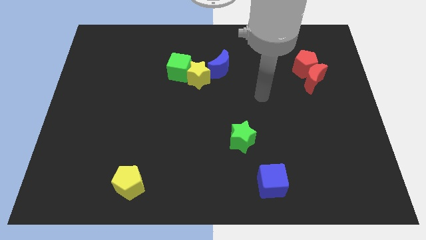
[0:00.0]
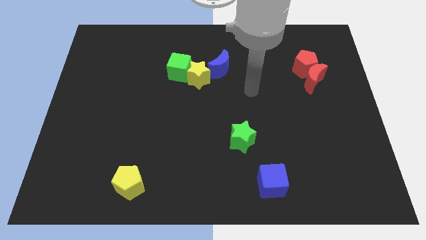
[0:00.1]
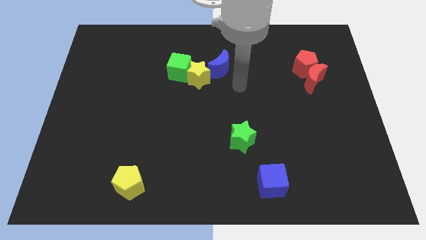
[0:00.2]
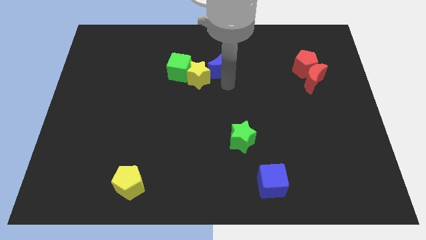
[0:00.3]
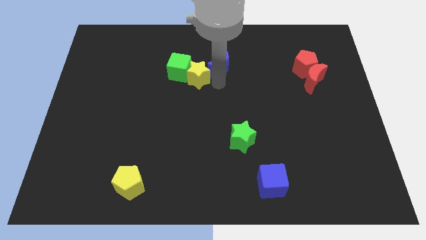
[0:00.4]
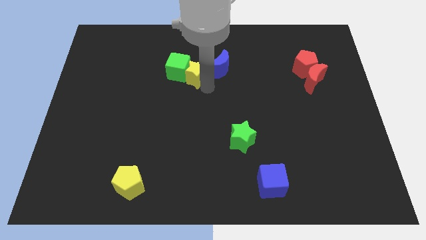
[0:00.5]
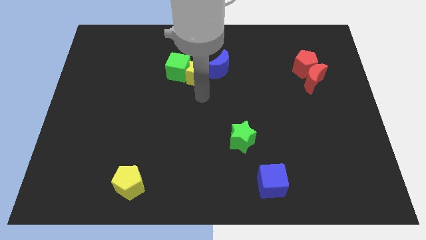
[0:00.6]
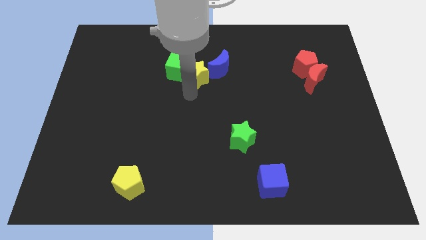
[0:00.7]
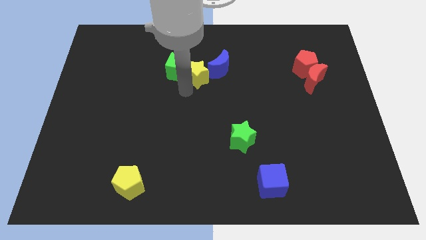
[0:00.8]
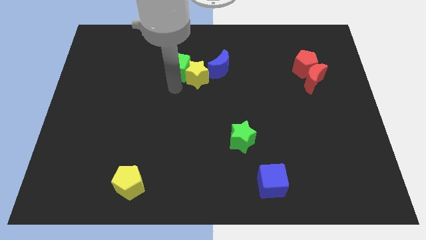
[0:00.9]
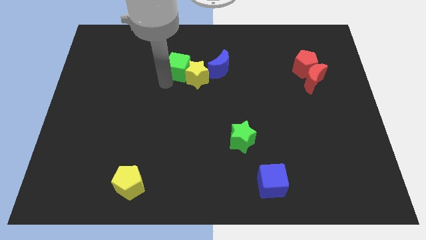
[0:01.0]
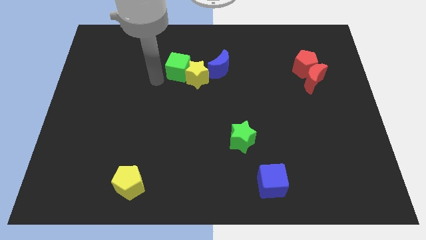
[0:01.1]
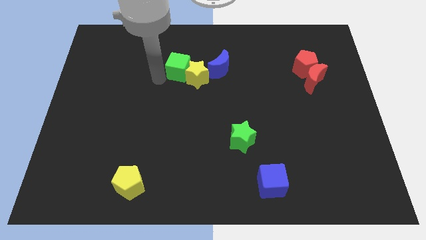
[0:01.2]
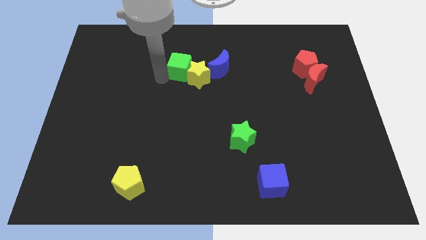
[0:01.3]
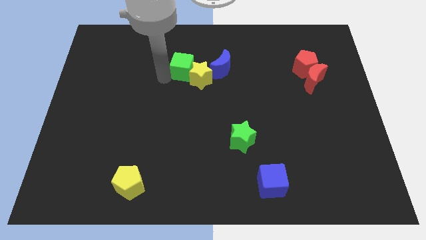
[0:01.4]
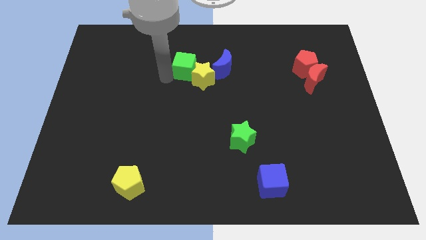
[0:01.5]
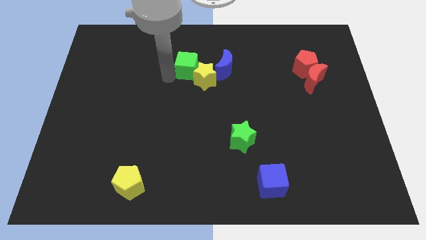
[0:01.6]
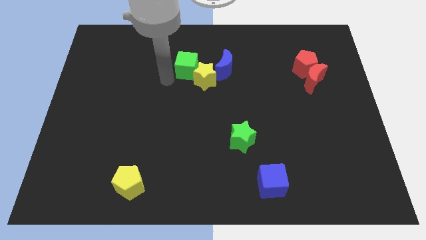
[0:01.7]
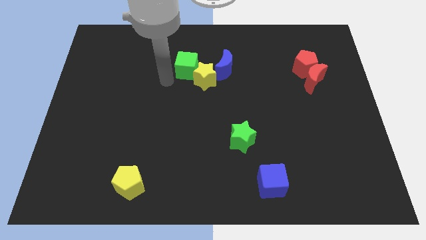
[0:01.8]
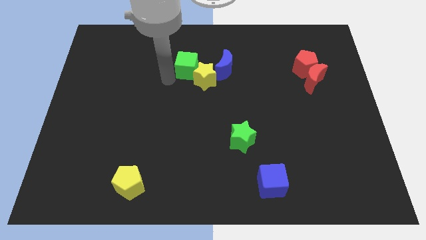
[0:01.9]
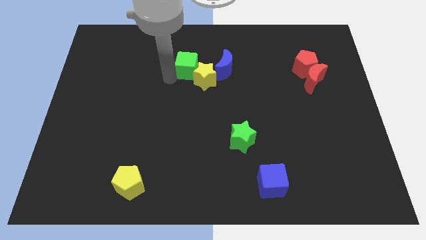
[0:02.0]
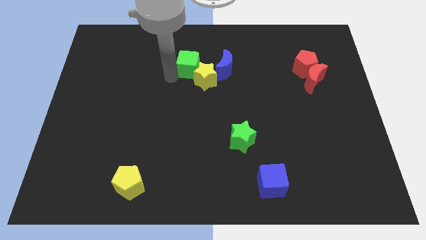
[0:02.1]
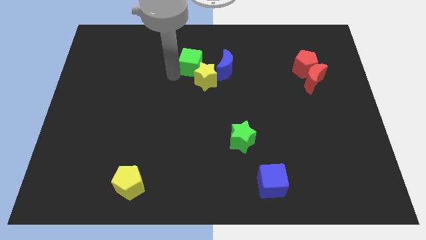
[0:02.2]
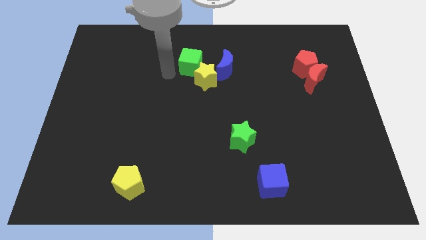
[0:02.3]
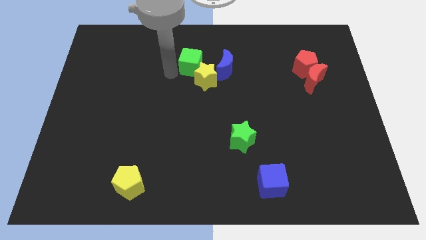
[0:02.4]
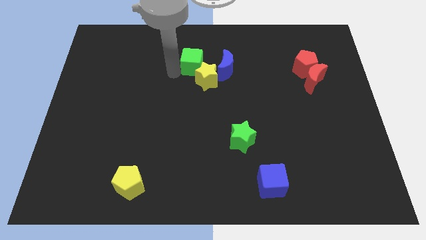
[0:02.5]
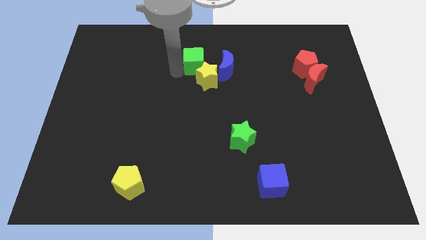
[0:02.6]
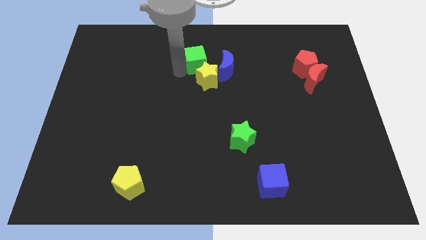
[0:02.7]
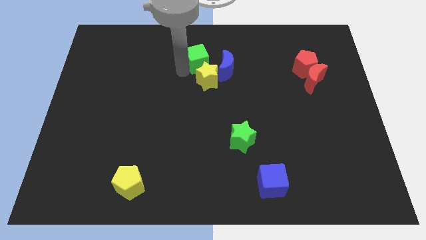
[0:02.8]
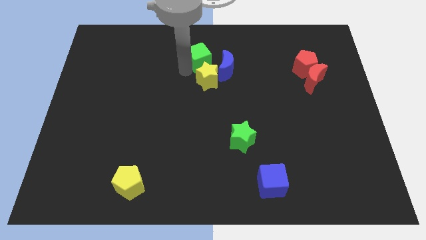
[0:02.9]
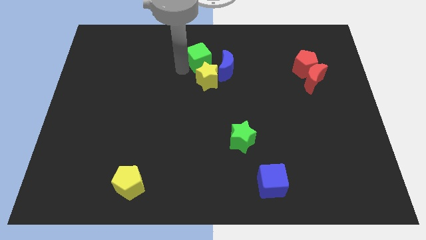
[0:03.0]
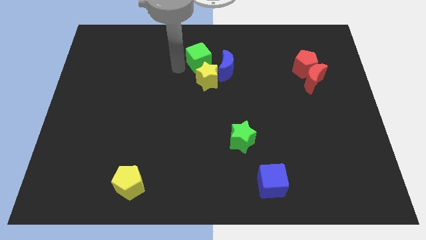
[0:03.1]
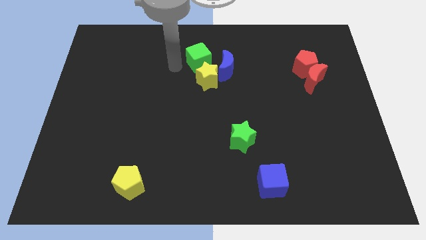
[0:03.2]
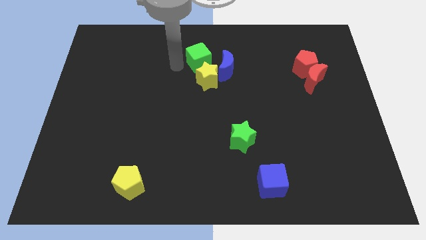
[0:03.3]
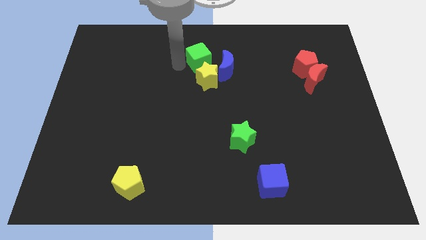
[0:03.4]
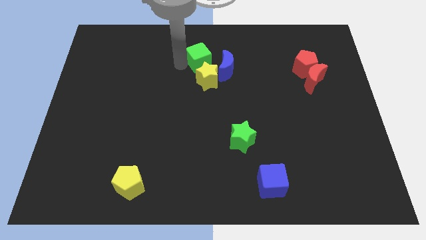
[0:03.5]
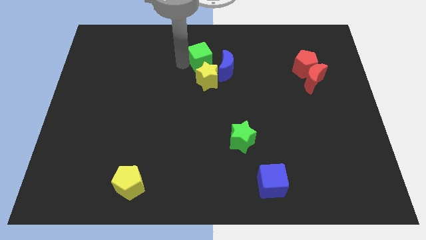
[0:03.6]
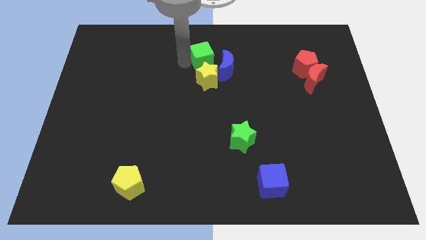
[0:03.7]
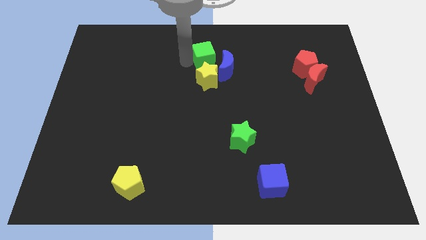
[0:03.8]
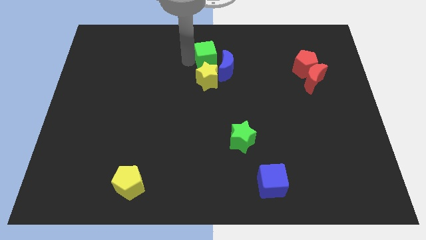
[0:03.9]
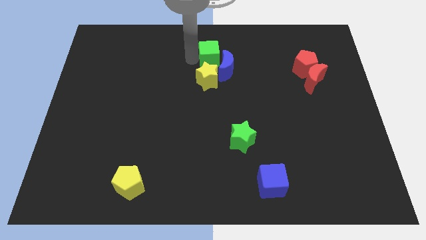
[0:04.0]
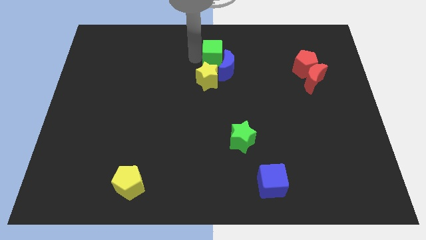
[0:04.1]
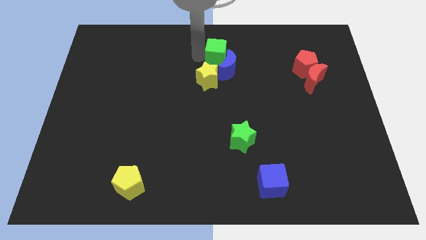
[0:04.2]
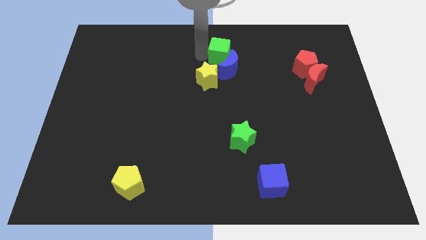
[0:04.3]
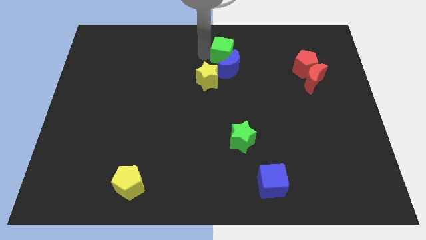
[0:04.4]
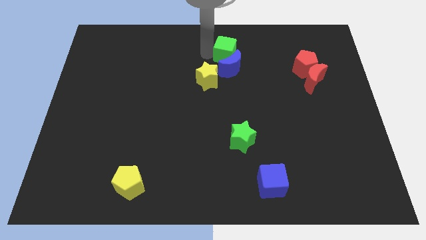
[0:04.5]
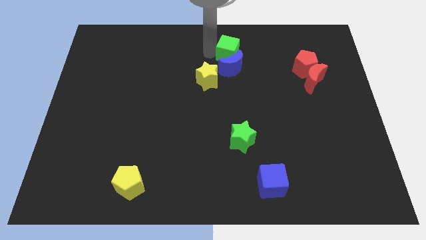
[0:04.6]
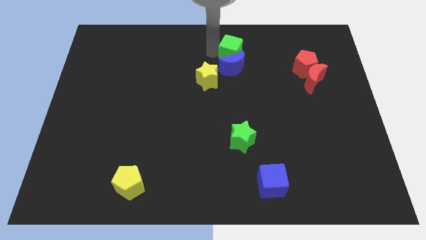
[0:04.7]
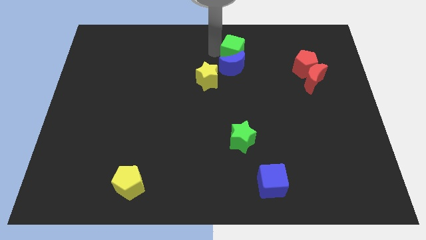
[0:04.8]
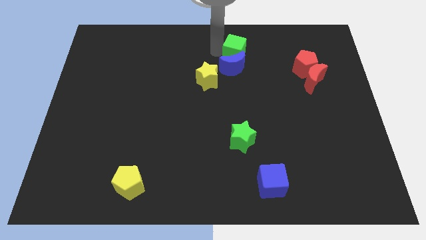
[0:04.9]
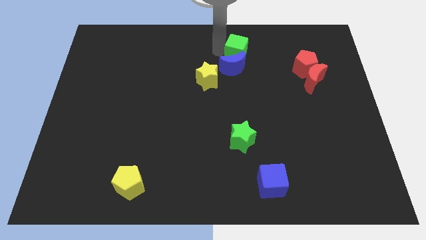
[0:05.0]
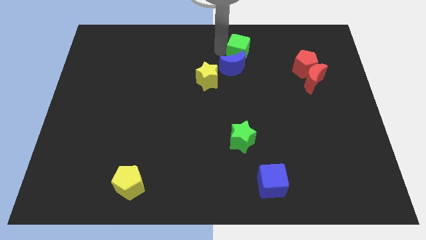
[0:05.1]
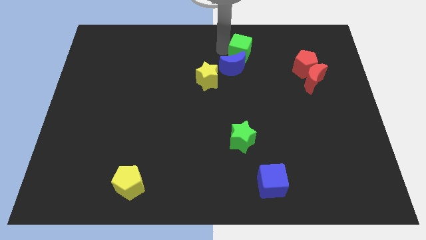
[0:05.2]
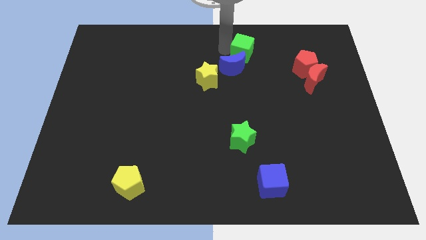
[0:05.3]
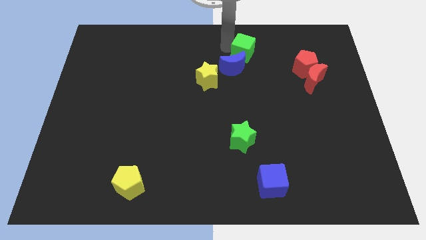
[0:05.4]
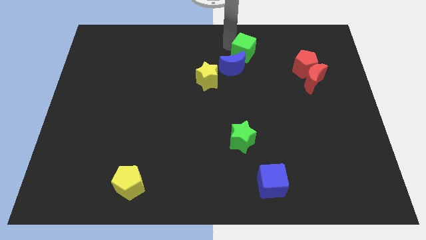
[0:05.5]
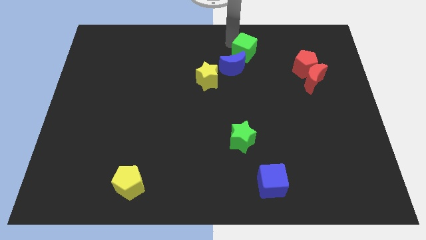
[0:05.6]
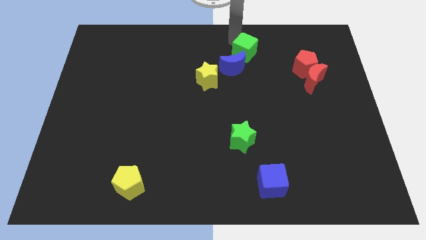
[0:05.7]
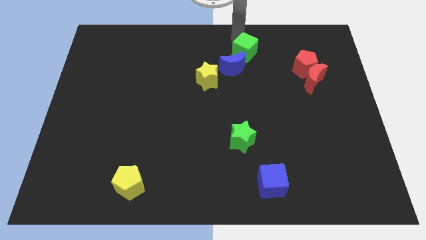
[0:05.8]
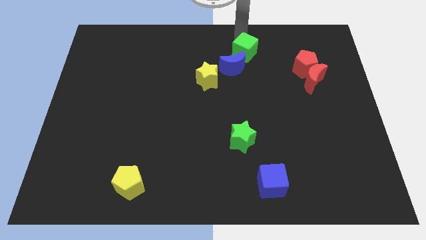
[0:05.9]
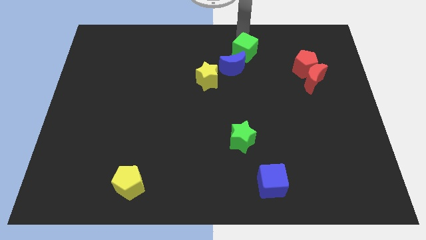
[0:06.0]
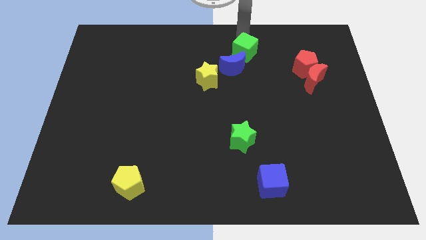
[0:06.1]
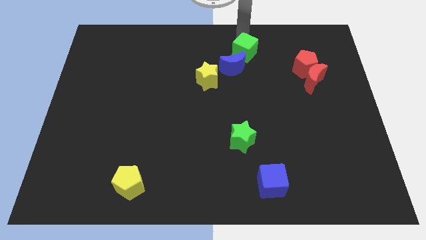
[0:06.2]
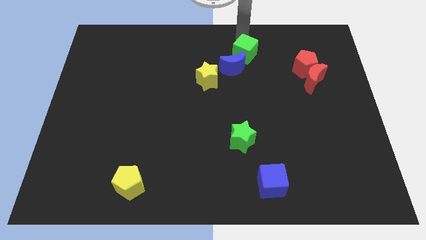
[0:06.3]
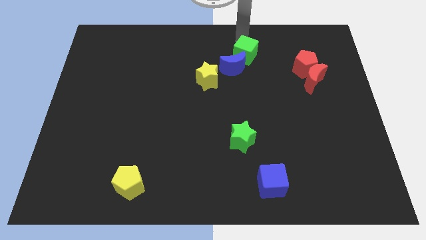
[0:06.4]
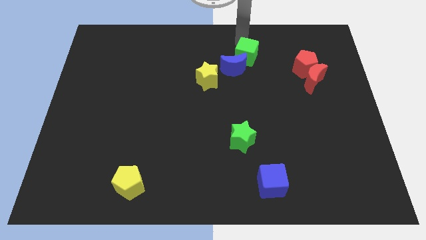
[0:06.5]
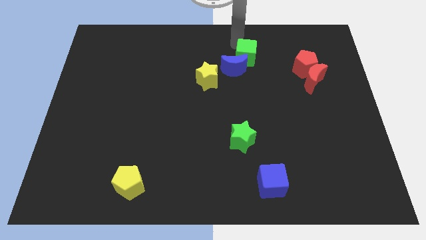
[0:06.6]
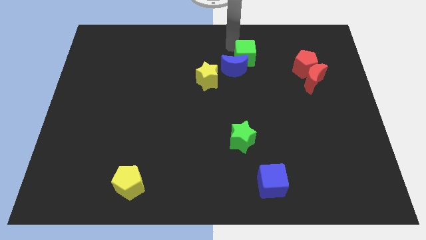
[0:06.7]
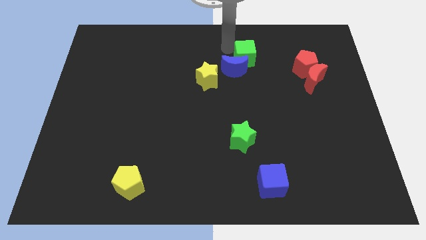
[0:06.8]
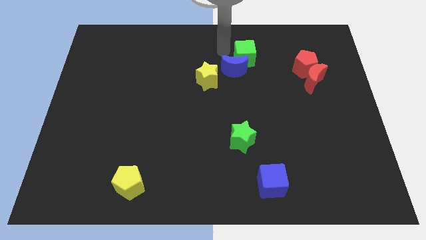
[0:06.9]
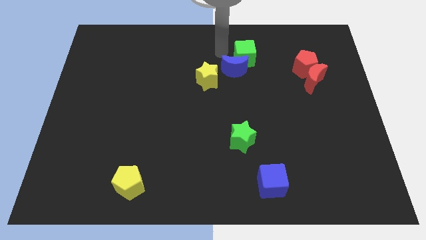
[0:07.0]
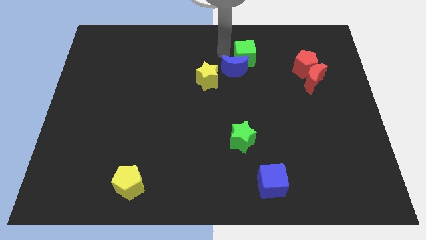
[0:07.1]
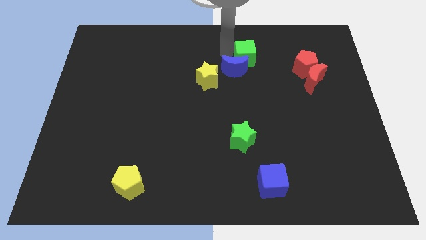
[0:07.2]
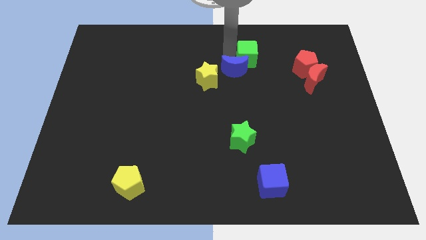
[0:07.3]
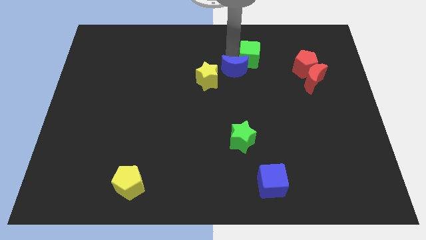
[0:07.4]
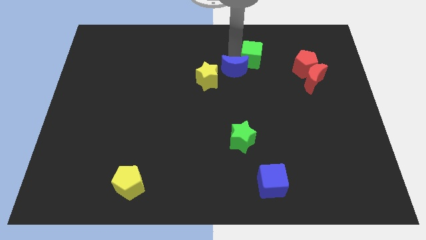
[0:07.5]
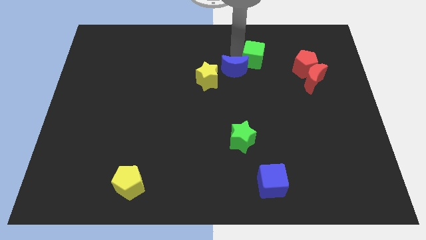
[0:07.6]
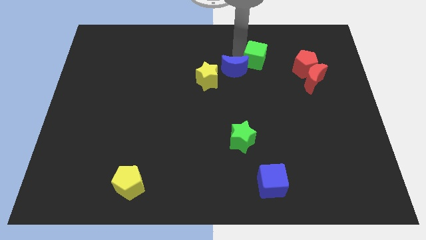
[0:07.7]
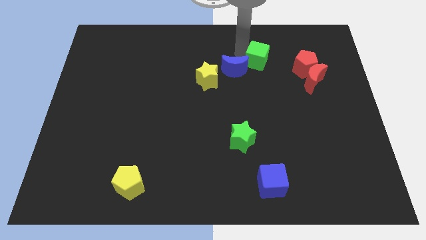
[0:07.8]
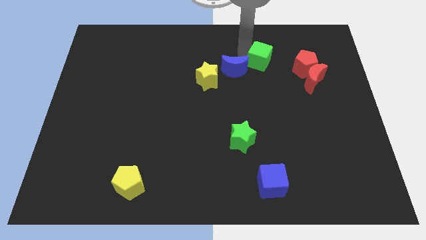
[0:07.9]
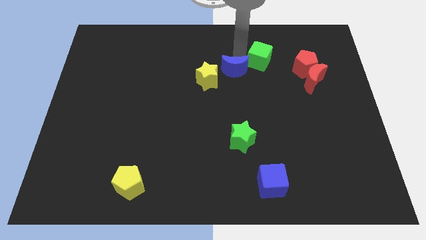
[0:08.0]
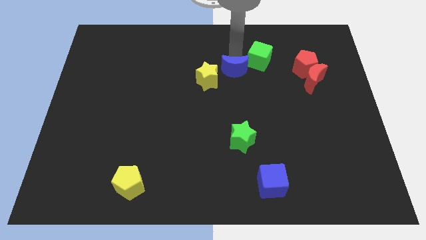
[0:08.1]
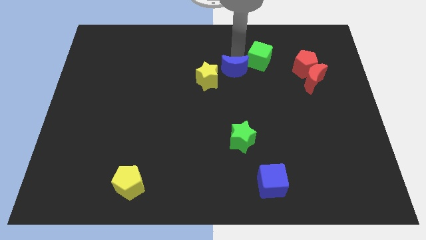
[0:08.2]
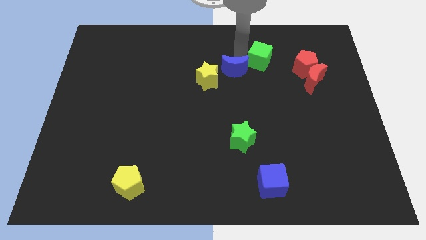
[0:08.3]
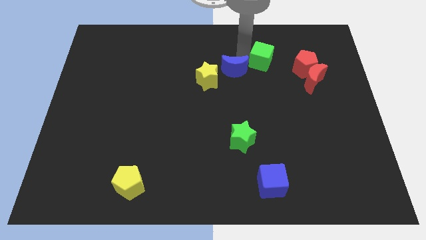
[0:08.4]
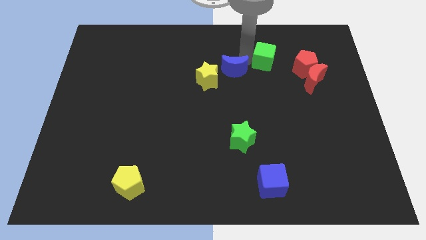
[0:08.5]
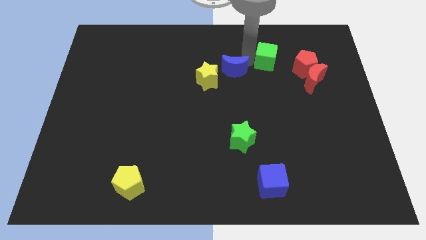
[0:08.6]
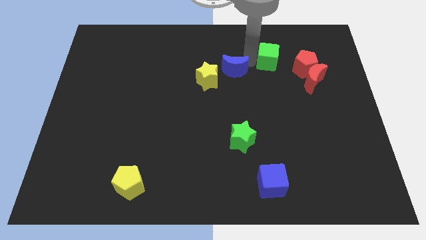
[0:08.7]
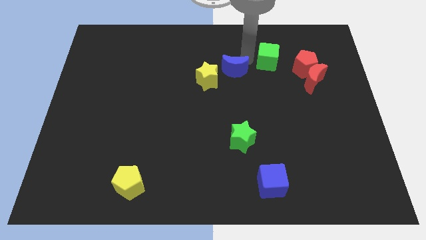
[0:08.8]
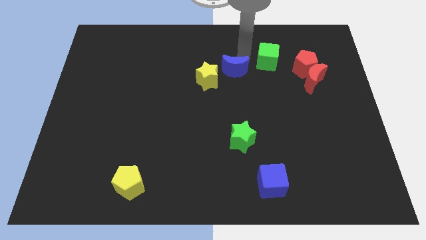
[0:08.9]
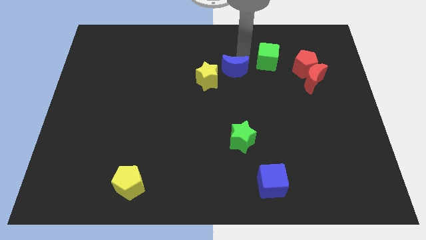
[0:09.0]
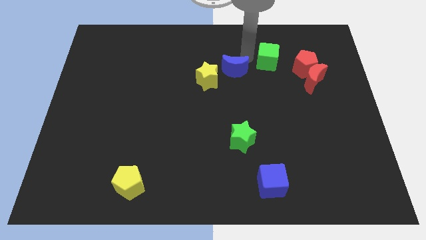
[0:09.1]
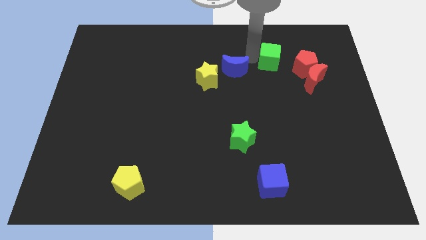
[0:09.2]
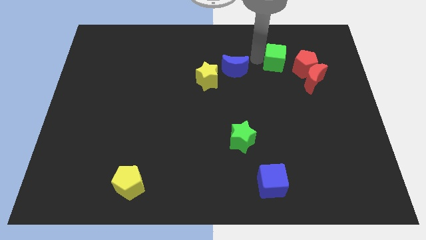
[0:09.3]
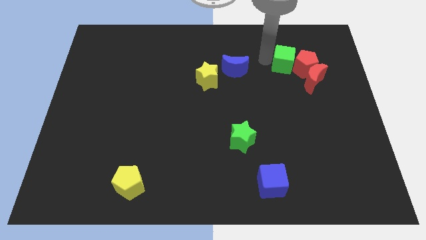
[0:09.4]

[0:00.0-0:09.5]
push the green cube towards the red pentagon
